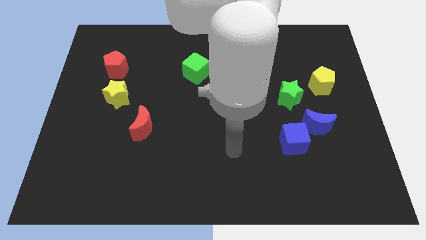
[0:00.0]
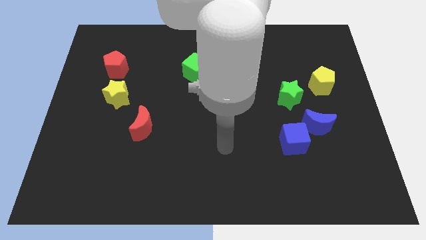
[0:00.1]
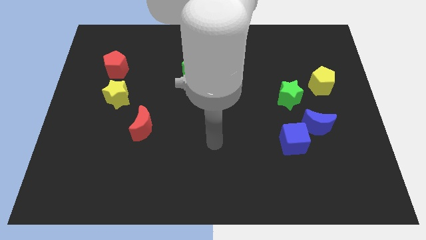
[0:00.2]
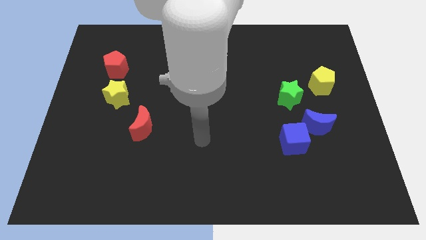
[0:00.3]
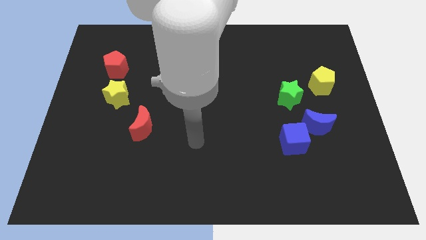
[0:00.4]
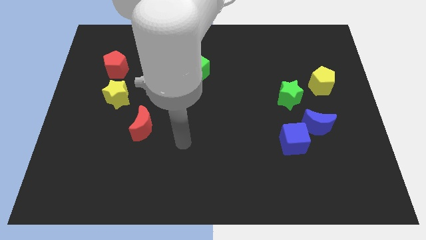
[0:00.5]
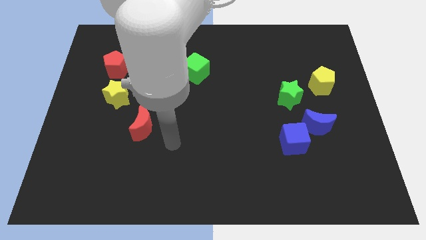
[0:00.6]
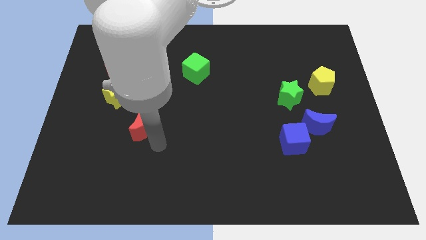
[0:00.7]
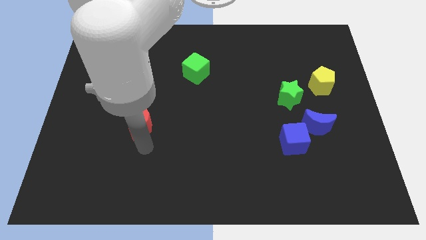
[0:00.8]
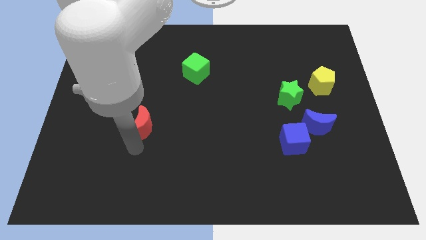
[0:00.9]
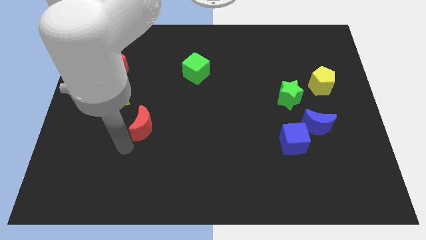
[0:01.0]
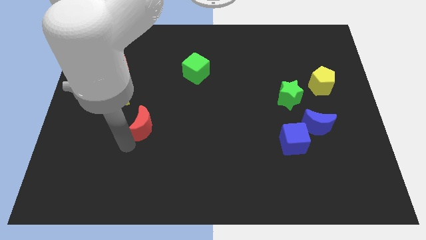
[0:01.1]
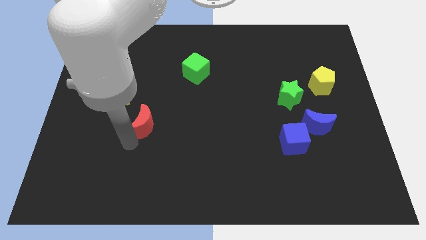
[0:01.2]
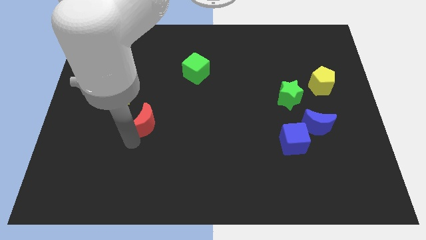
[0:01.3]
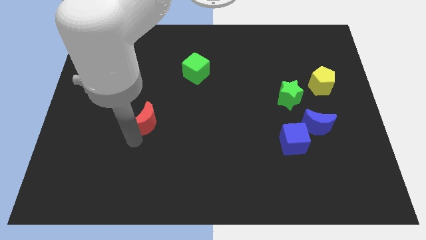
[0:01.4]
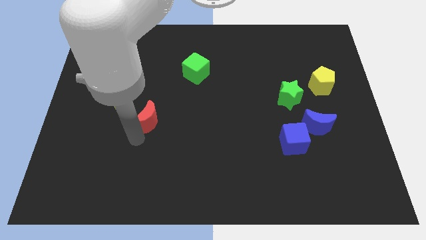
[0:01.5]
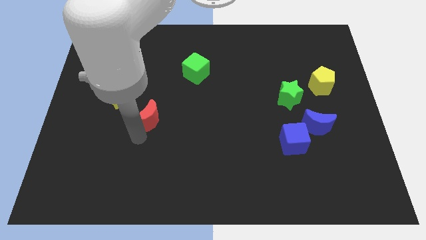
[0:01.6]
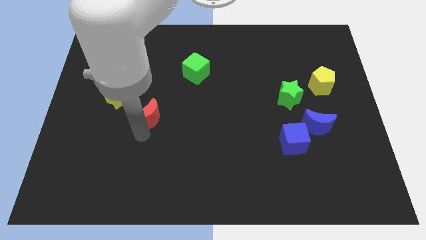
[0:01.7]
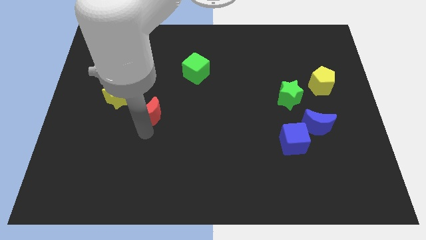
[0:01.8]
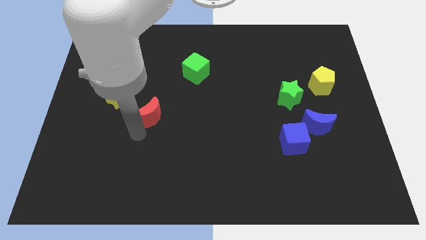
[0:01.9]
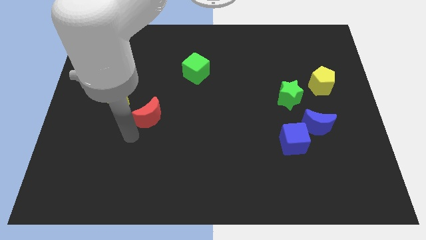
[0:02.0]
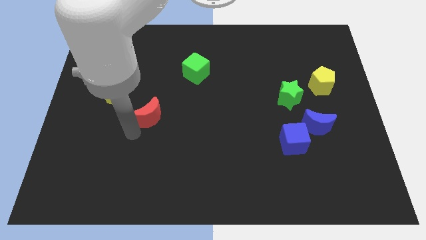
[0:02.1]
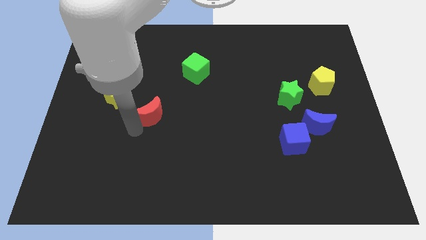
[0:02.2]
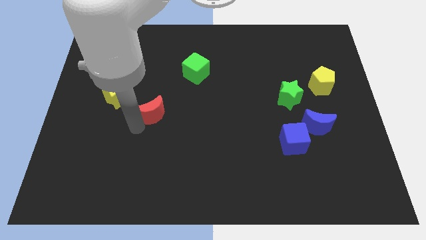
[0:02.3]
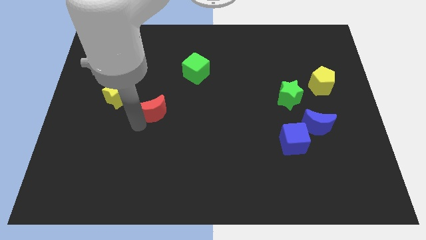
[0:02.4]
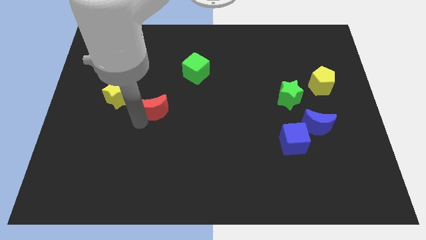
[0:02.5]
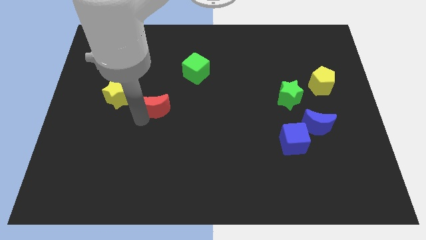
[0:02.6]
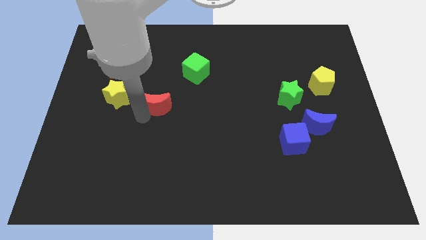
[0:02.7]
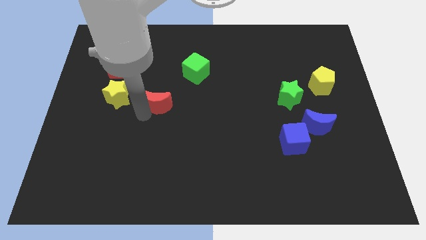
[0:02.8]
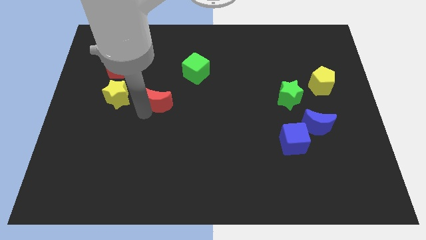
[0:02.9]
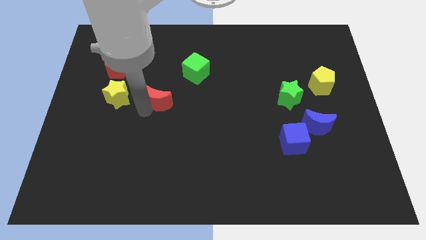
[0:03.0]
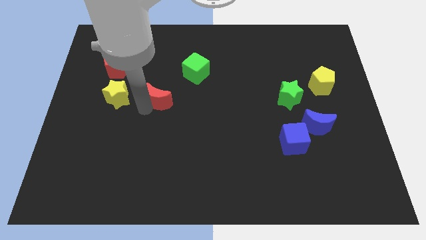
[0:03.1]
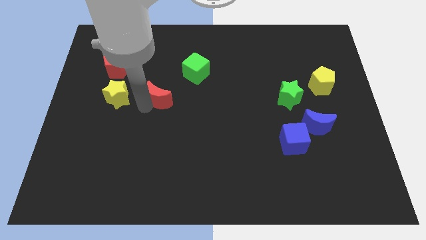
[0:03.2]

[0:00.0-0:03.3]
push the red moon a little bit diagonally upwards and to the right

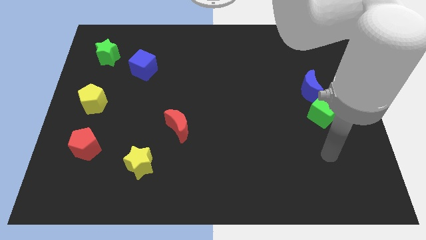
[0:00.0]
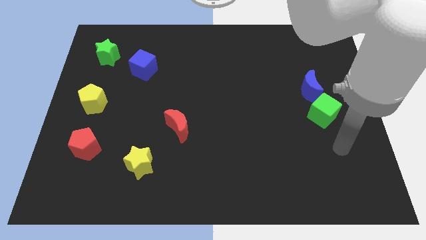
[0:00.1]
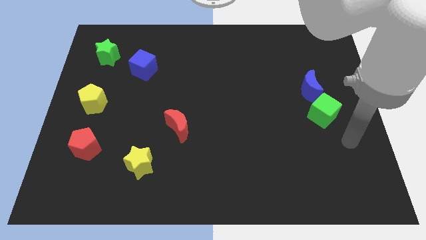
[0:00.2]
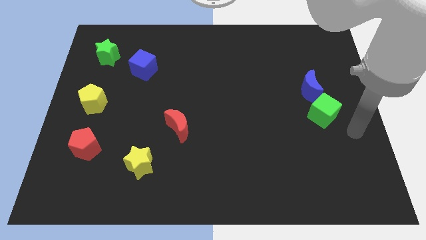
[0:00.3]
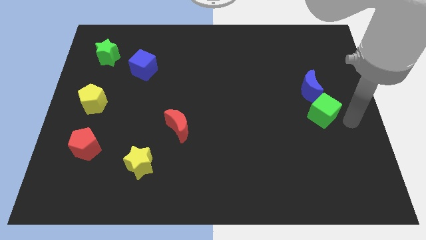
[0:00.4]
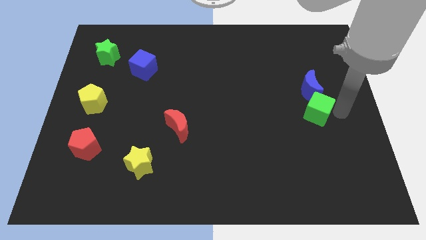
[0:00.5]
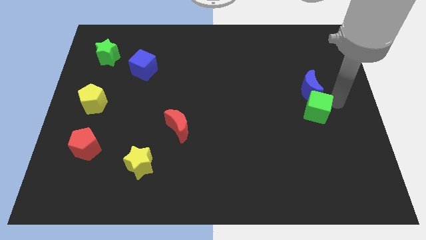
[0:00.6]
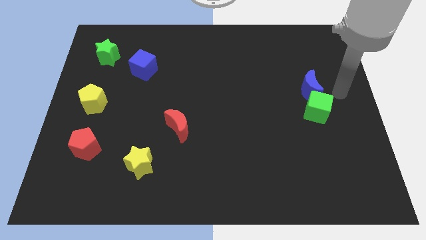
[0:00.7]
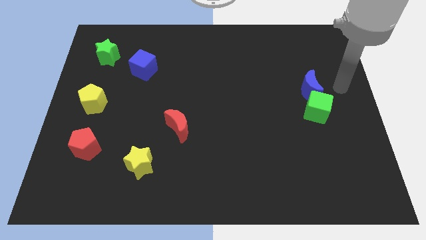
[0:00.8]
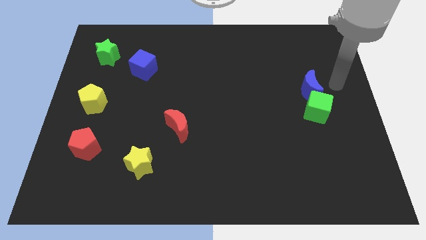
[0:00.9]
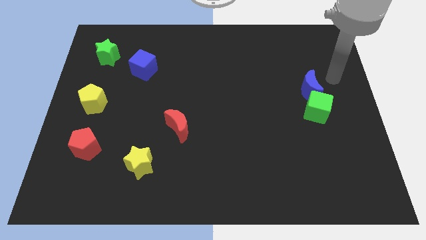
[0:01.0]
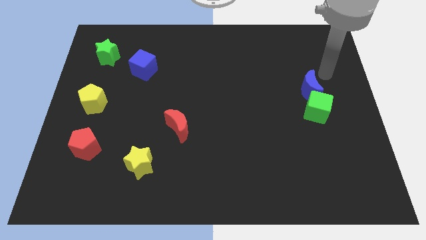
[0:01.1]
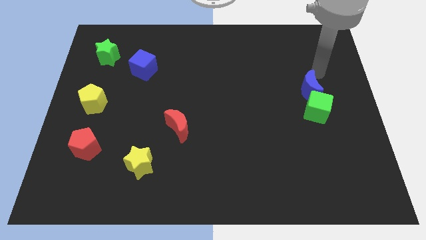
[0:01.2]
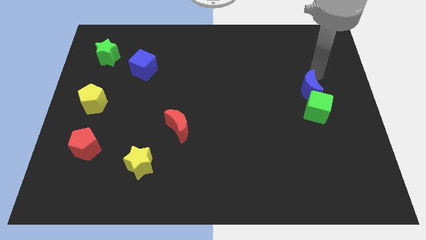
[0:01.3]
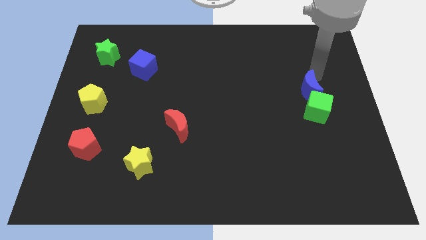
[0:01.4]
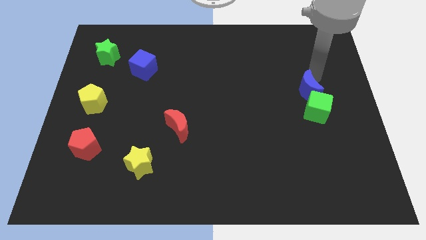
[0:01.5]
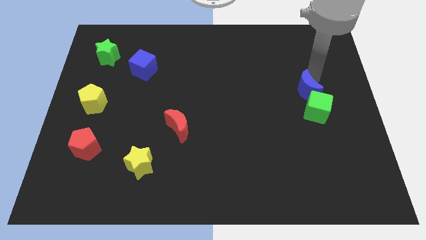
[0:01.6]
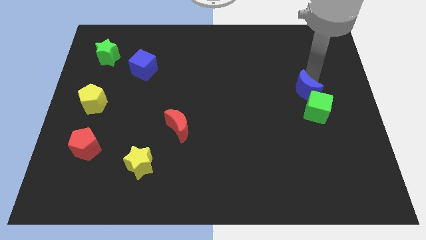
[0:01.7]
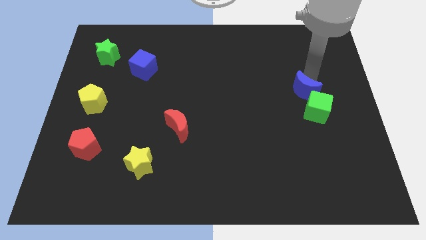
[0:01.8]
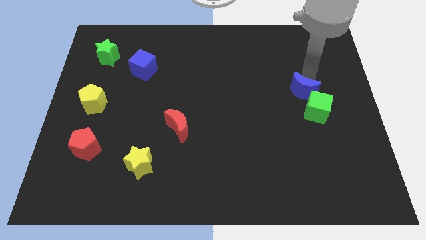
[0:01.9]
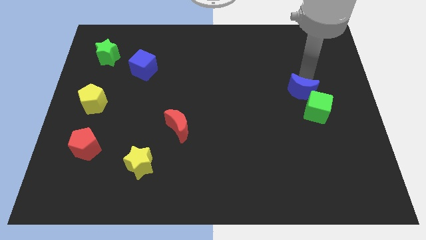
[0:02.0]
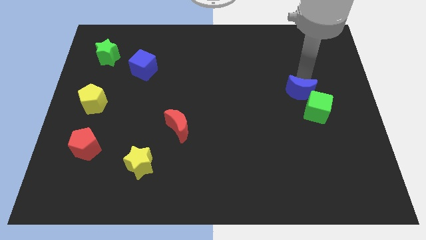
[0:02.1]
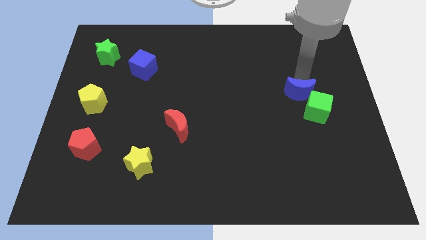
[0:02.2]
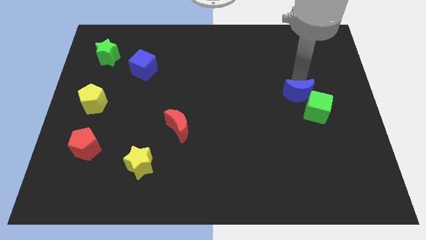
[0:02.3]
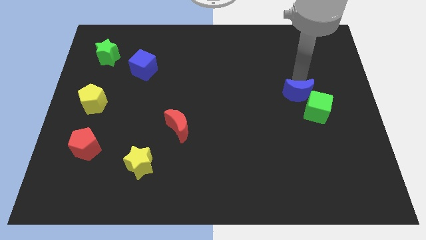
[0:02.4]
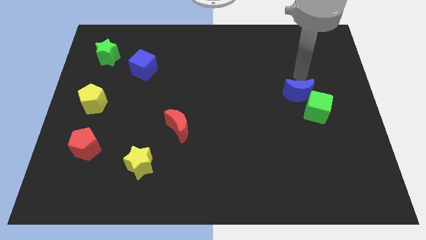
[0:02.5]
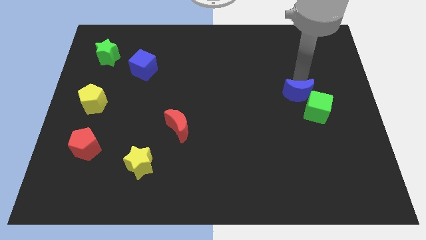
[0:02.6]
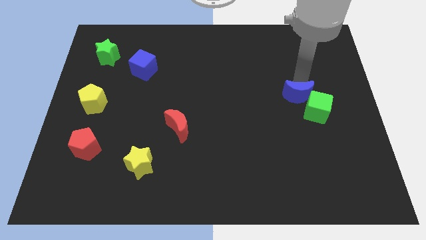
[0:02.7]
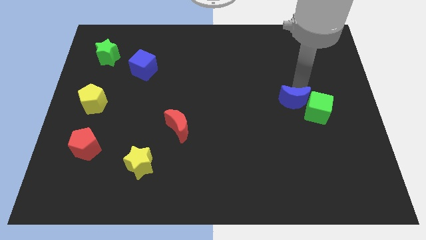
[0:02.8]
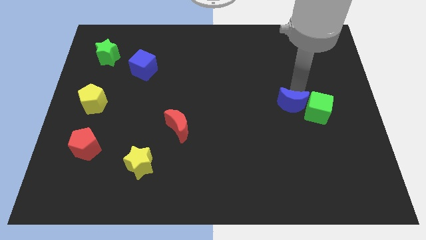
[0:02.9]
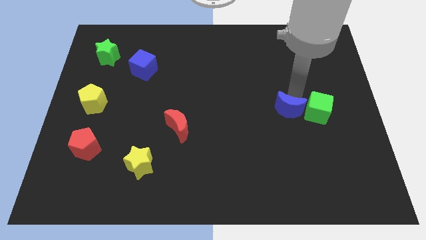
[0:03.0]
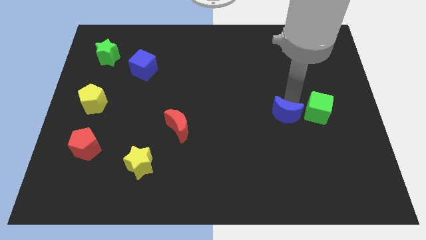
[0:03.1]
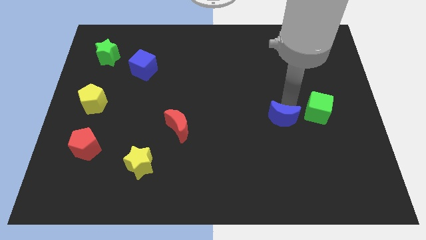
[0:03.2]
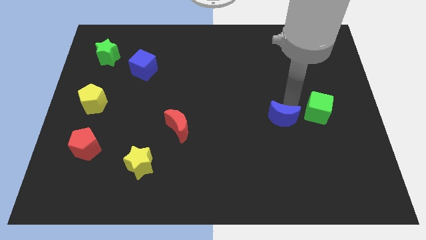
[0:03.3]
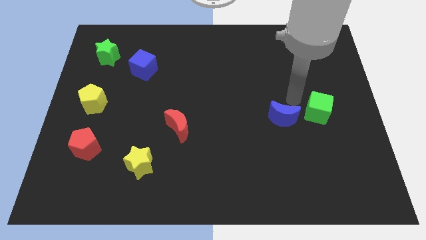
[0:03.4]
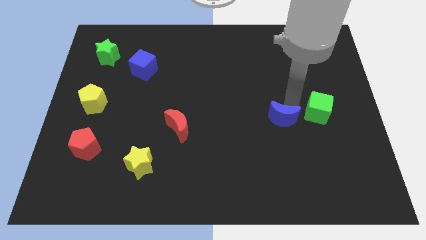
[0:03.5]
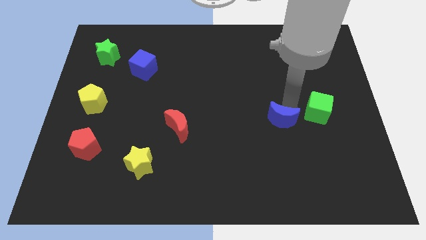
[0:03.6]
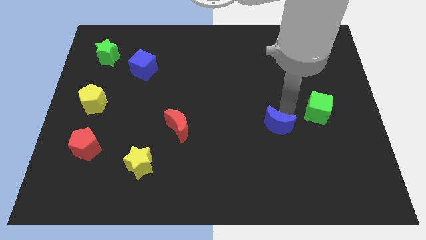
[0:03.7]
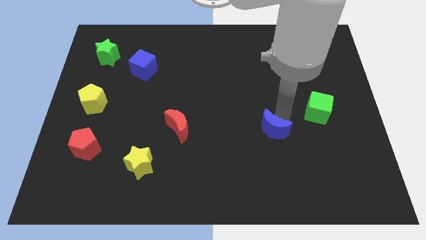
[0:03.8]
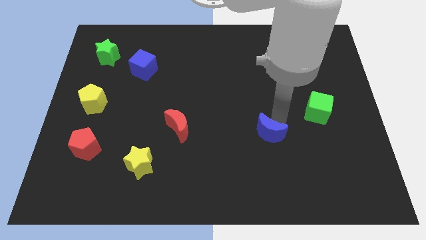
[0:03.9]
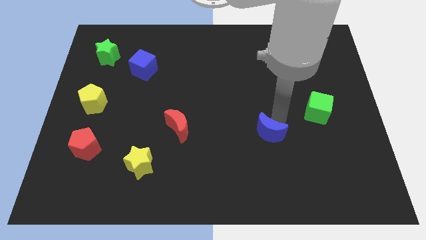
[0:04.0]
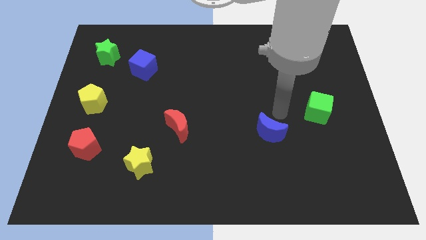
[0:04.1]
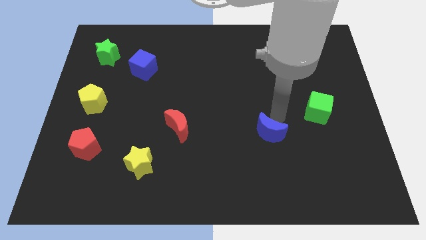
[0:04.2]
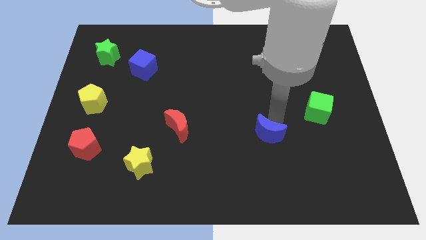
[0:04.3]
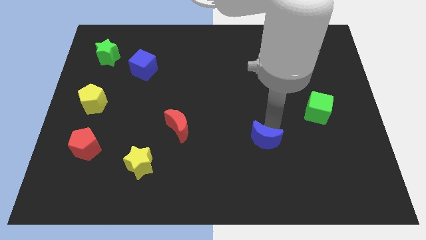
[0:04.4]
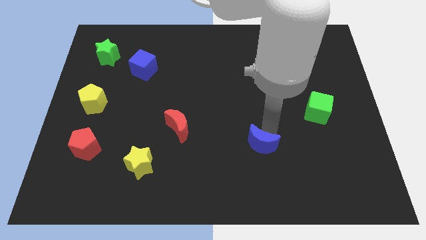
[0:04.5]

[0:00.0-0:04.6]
move the blue moon downwards and to the left
